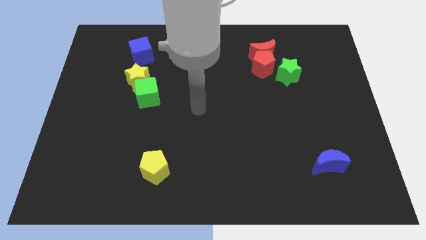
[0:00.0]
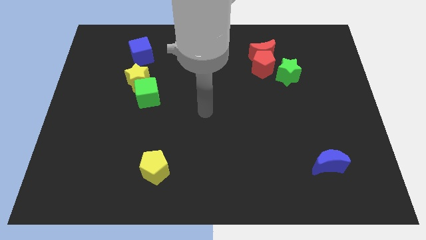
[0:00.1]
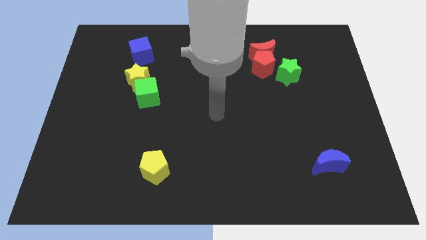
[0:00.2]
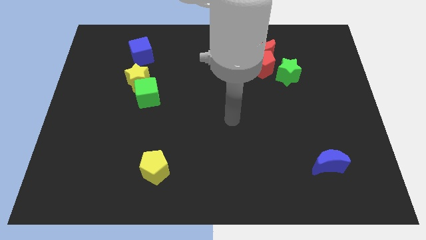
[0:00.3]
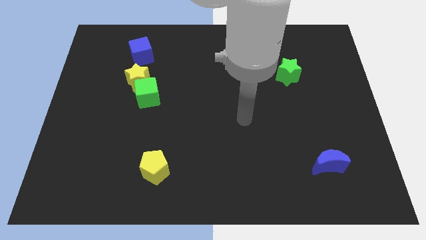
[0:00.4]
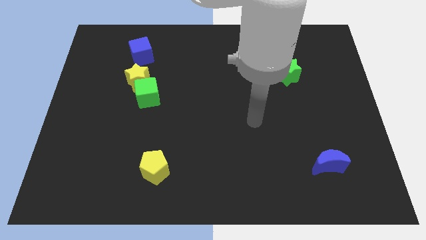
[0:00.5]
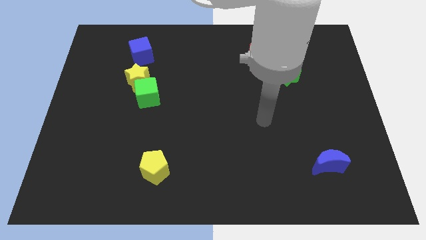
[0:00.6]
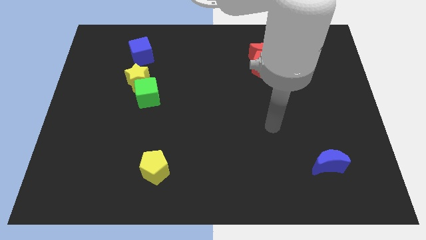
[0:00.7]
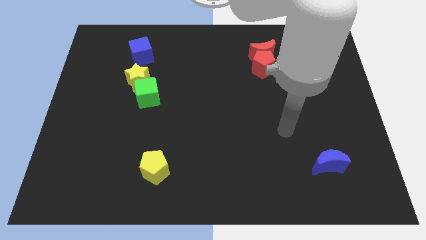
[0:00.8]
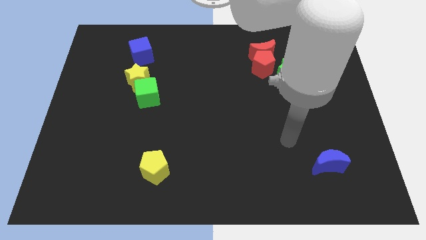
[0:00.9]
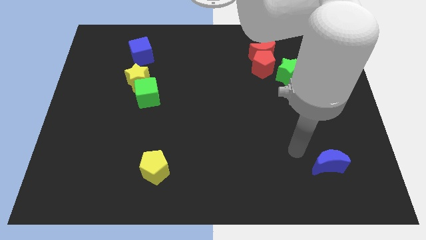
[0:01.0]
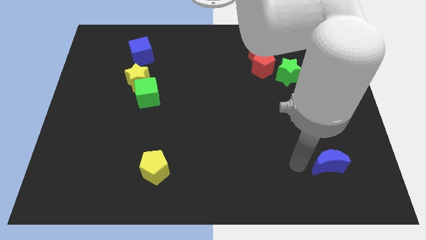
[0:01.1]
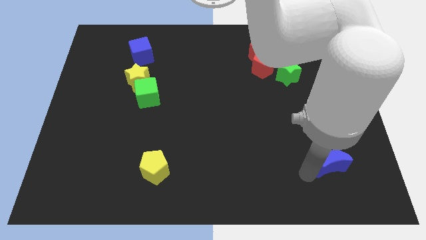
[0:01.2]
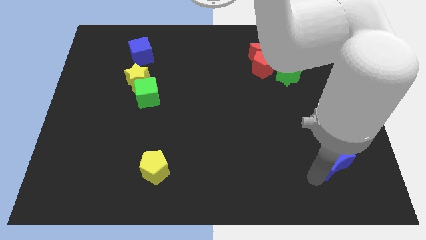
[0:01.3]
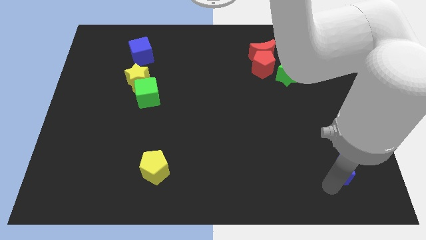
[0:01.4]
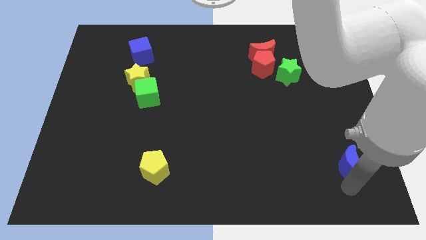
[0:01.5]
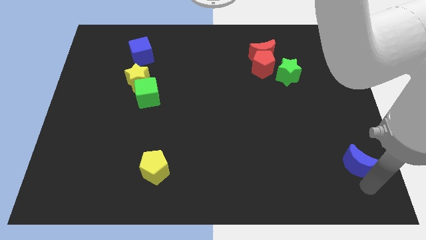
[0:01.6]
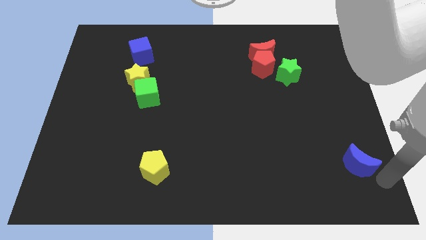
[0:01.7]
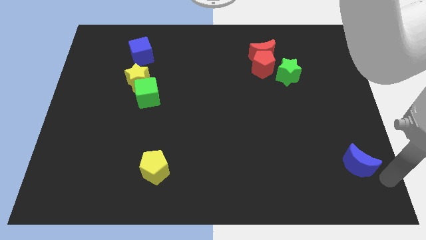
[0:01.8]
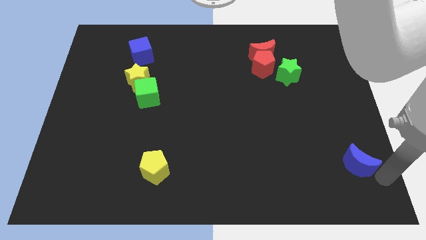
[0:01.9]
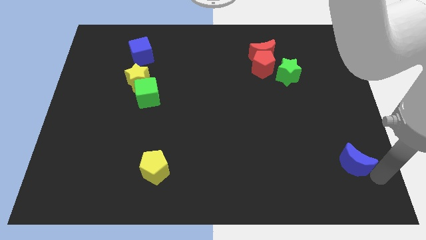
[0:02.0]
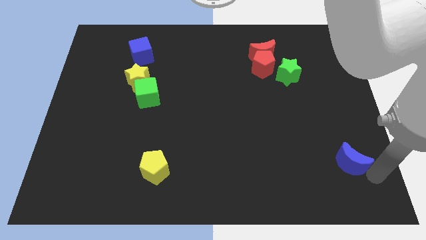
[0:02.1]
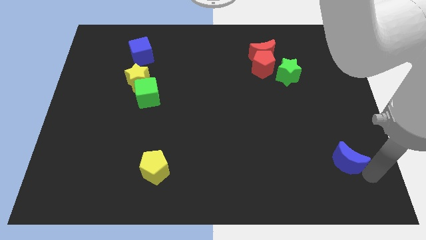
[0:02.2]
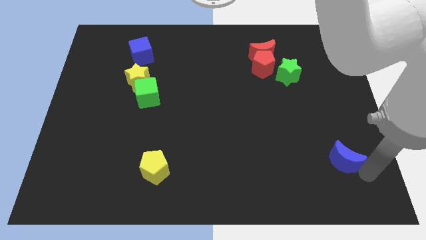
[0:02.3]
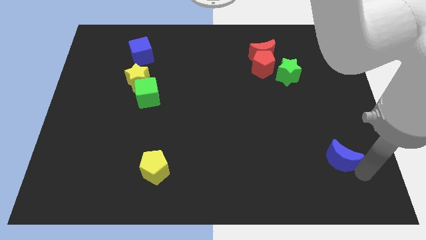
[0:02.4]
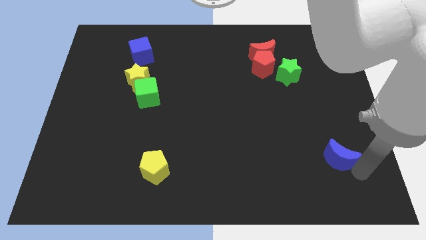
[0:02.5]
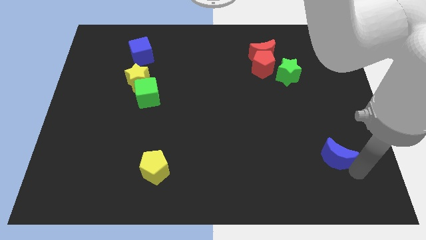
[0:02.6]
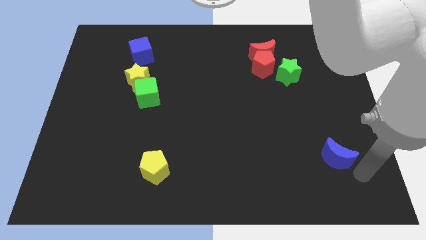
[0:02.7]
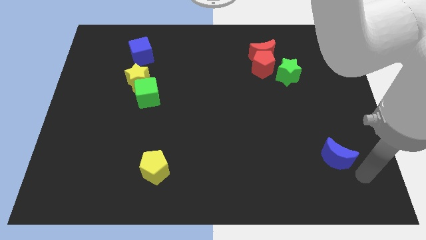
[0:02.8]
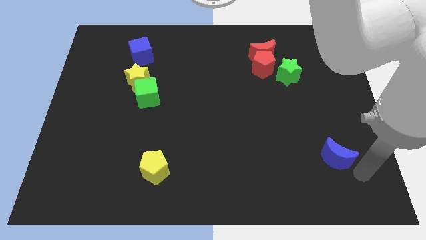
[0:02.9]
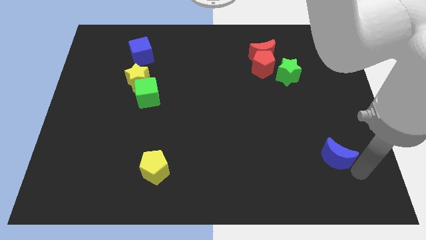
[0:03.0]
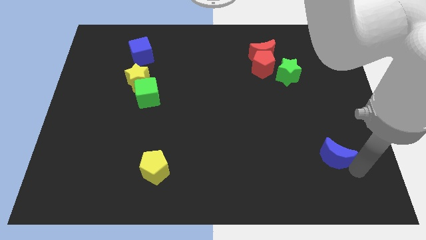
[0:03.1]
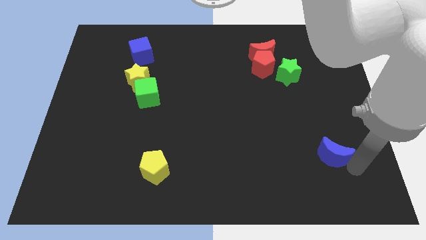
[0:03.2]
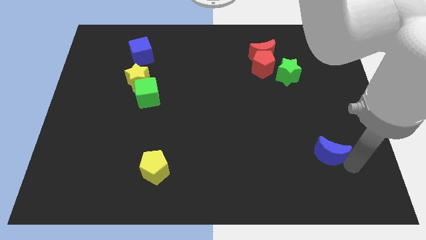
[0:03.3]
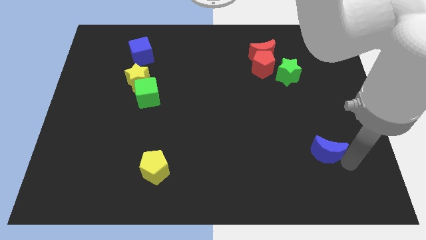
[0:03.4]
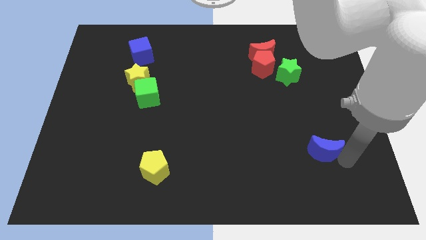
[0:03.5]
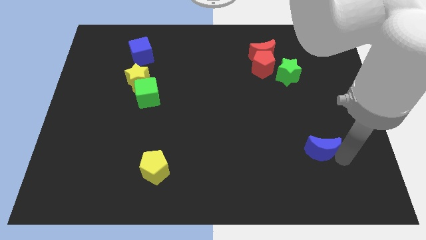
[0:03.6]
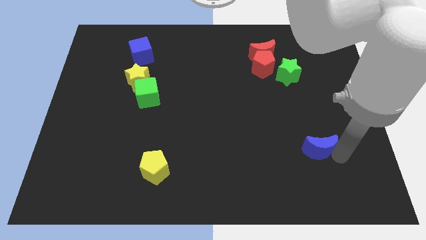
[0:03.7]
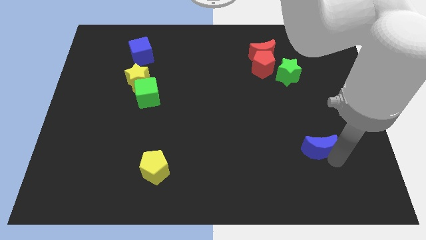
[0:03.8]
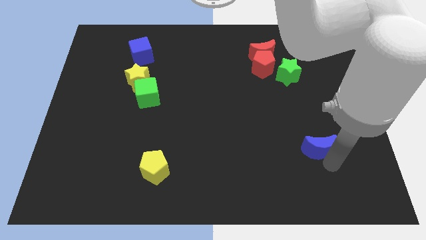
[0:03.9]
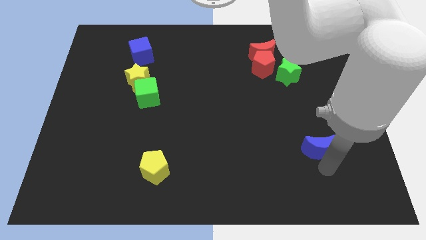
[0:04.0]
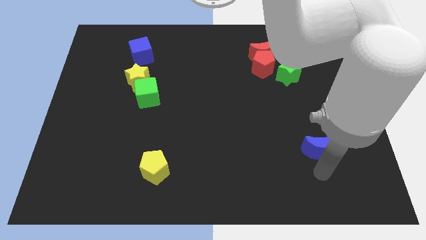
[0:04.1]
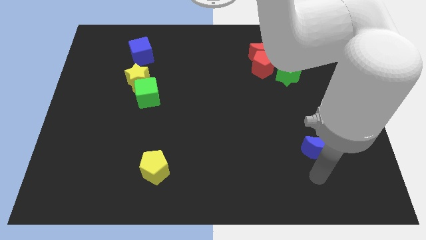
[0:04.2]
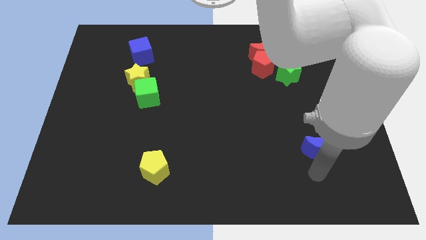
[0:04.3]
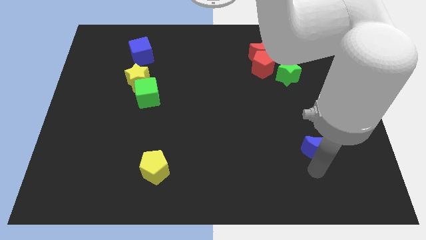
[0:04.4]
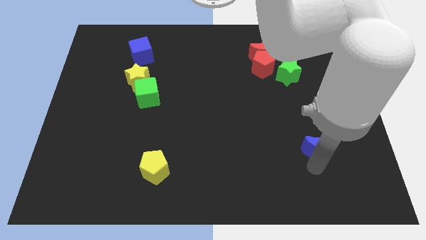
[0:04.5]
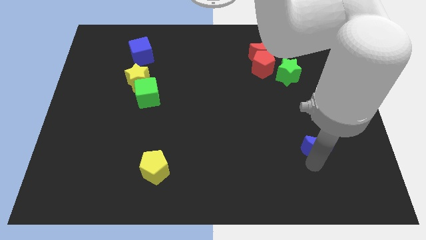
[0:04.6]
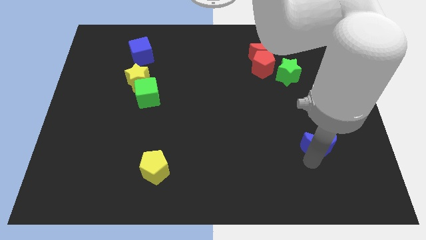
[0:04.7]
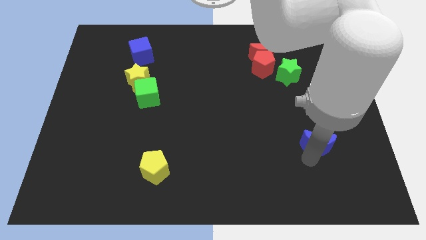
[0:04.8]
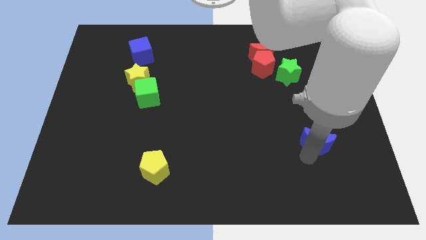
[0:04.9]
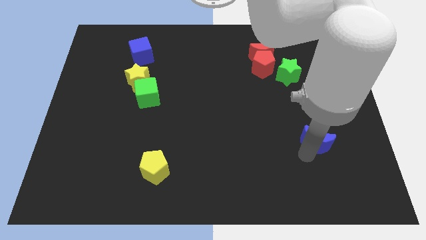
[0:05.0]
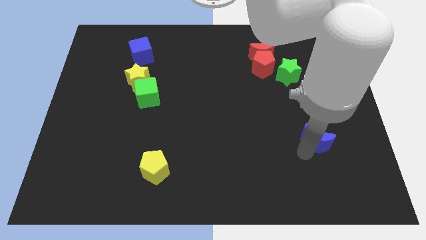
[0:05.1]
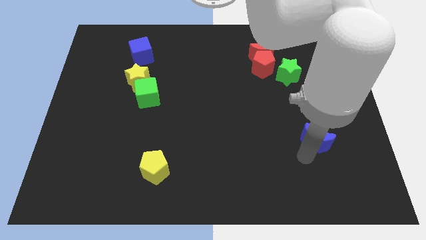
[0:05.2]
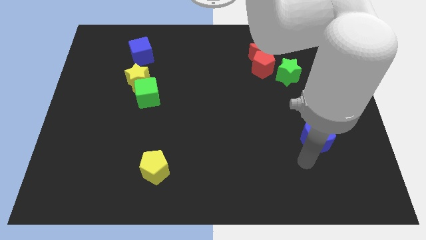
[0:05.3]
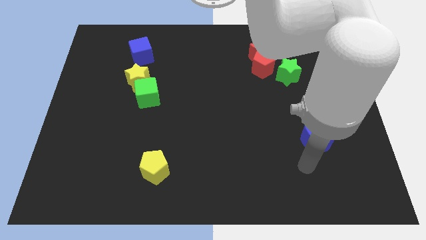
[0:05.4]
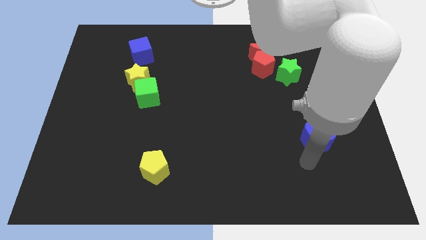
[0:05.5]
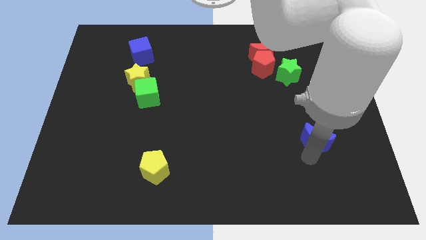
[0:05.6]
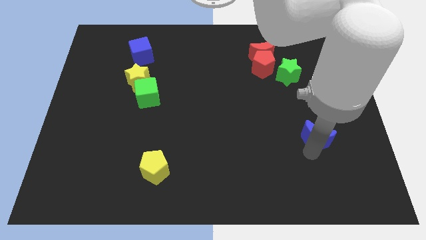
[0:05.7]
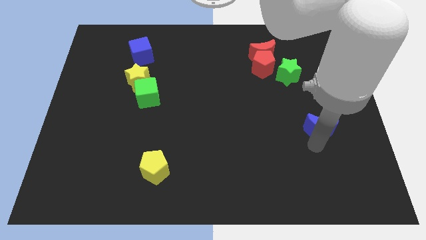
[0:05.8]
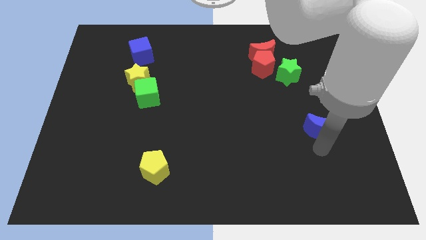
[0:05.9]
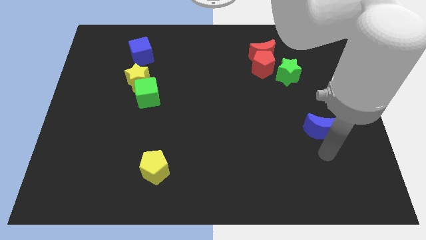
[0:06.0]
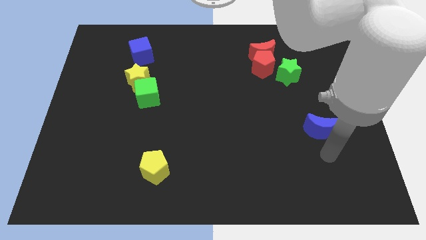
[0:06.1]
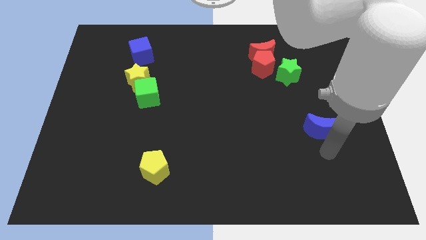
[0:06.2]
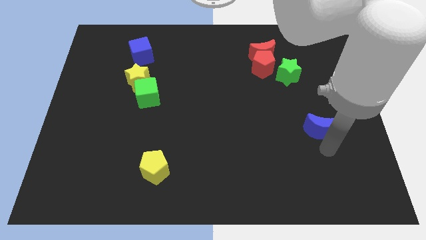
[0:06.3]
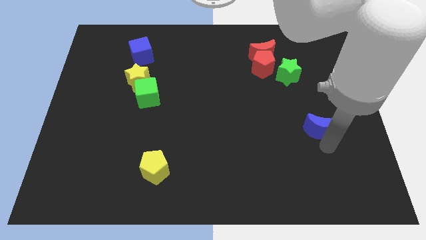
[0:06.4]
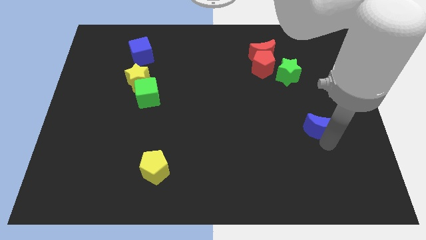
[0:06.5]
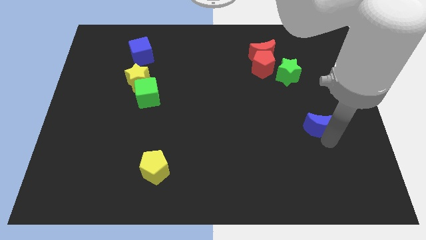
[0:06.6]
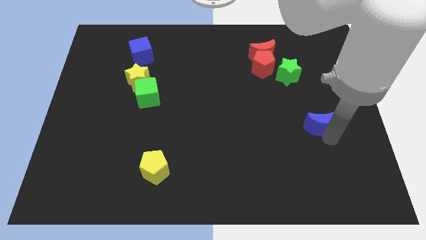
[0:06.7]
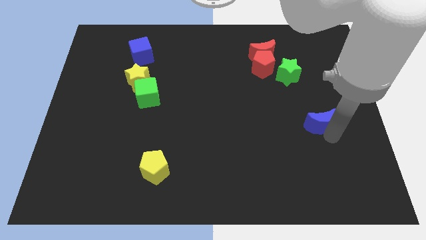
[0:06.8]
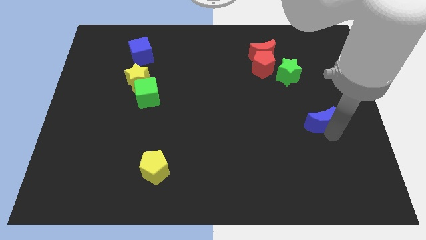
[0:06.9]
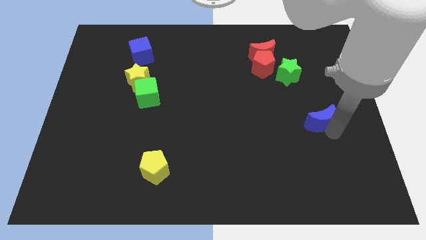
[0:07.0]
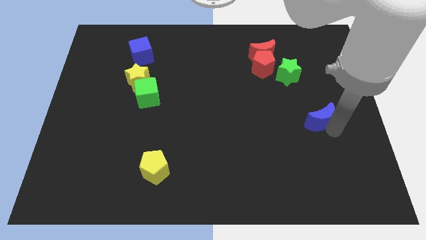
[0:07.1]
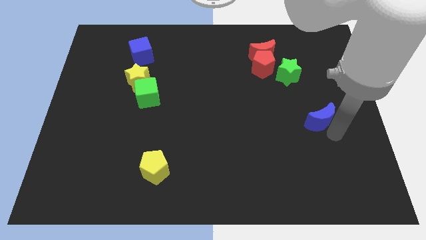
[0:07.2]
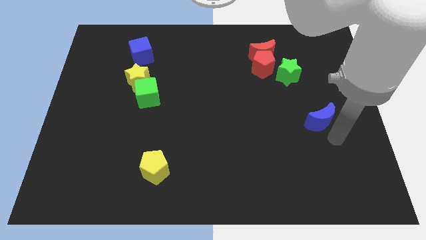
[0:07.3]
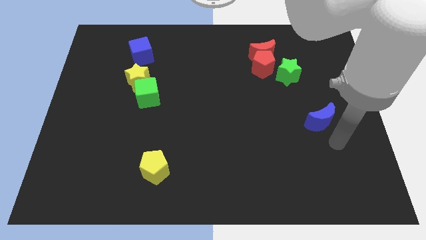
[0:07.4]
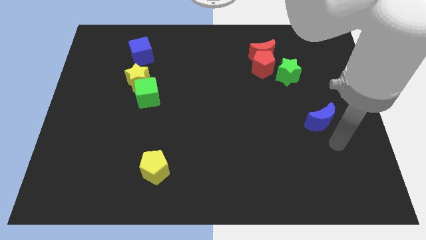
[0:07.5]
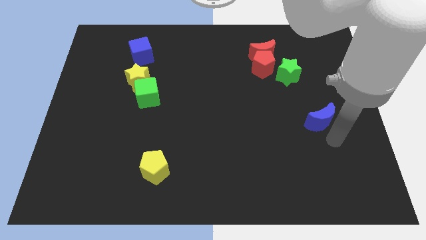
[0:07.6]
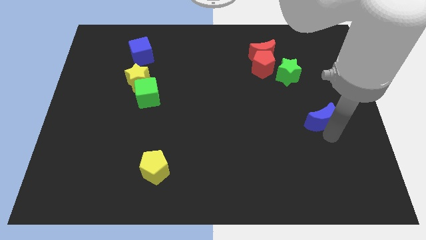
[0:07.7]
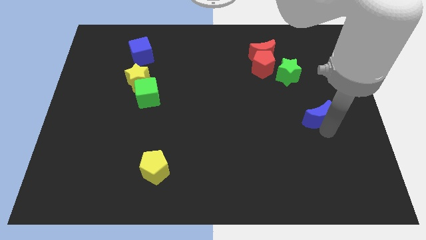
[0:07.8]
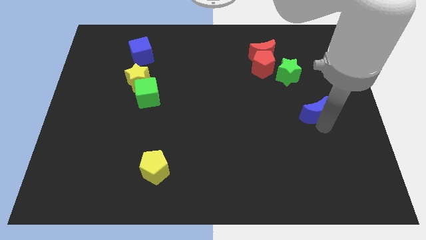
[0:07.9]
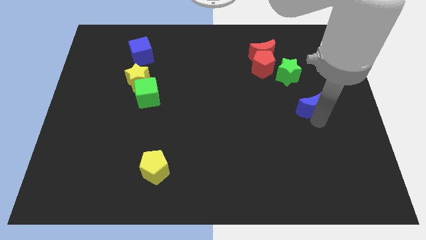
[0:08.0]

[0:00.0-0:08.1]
push the blue moon to the bottom right of the green star
